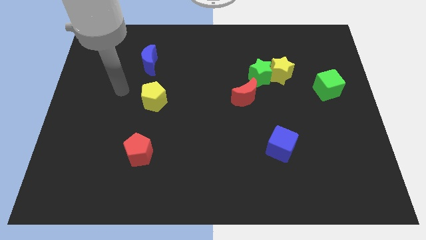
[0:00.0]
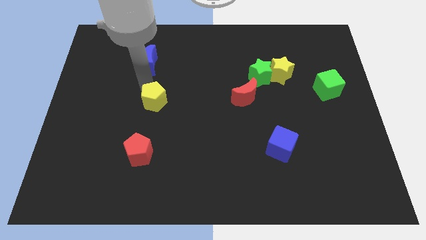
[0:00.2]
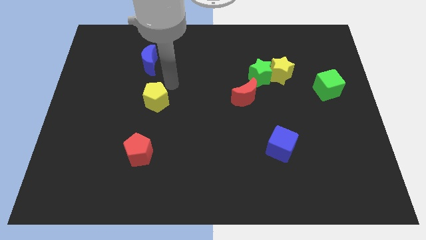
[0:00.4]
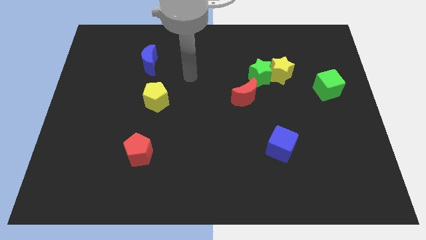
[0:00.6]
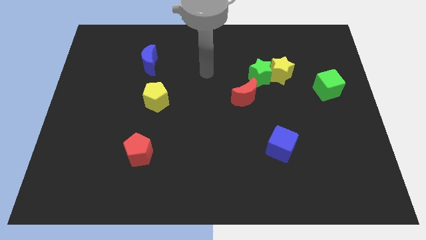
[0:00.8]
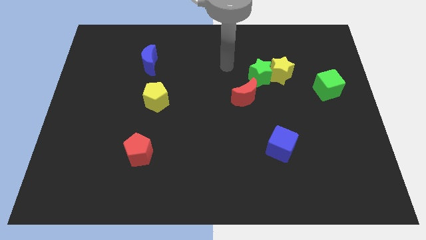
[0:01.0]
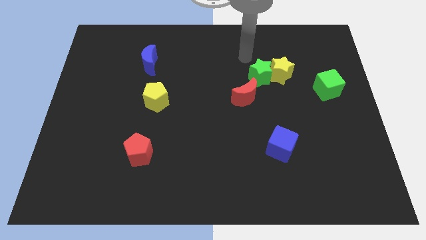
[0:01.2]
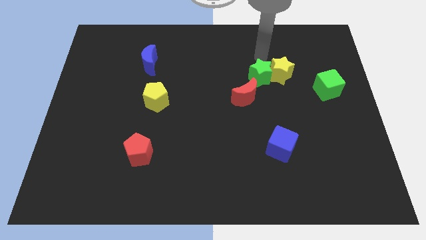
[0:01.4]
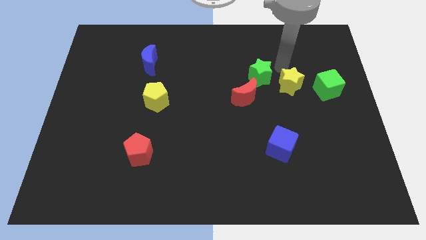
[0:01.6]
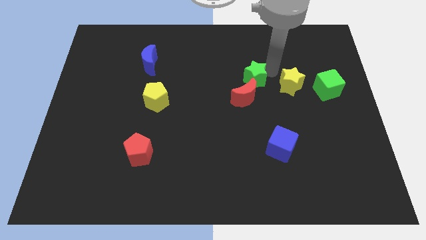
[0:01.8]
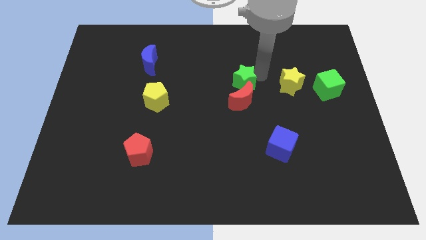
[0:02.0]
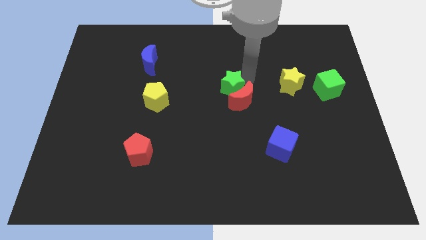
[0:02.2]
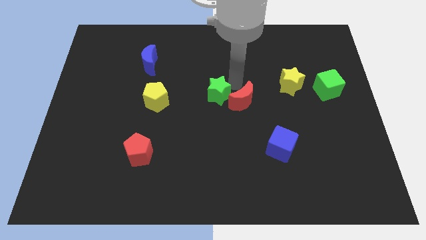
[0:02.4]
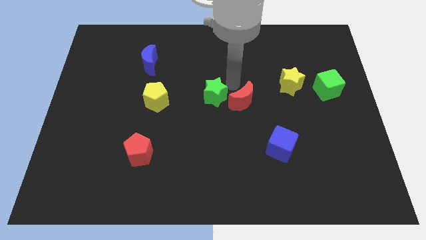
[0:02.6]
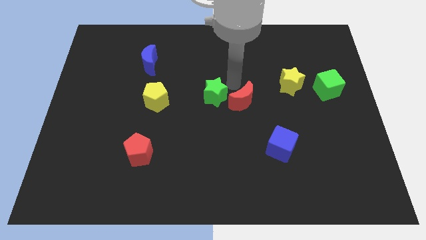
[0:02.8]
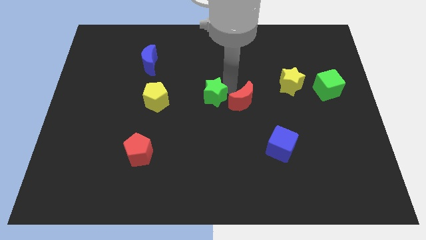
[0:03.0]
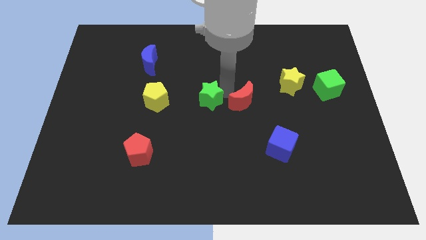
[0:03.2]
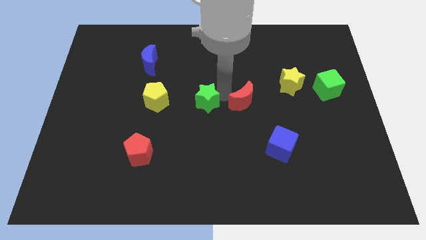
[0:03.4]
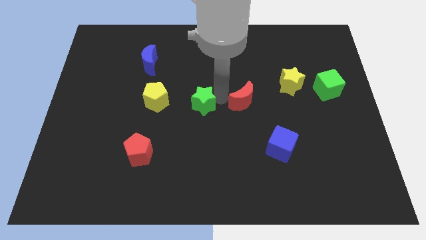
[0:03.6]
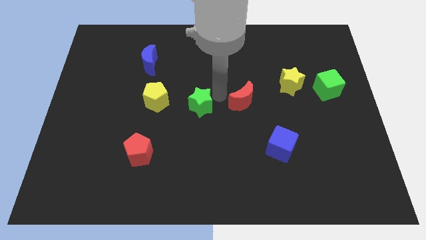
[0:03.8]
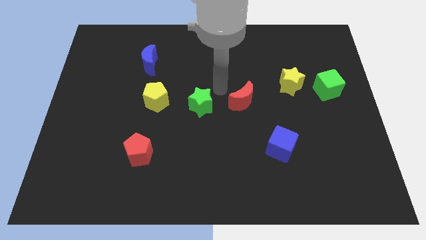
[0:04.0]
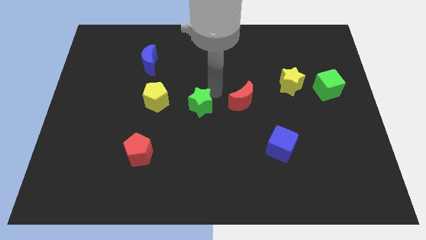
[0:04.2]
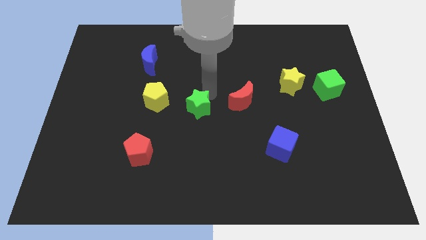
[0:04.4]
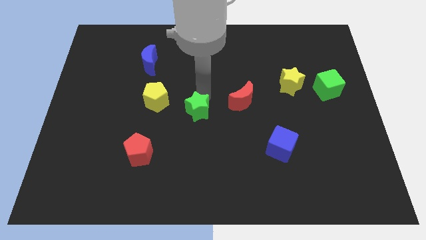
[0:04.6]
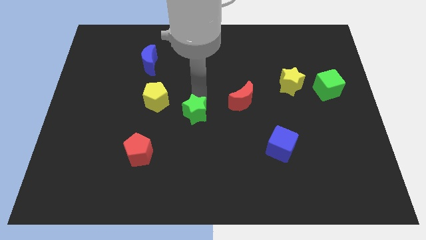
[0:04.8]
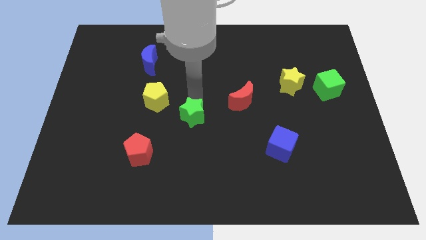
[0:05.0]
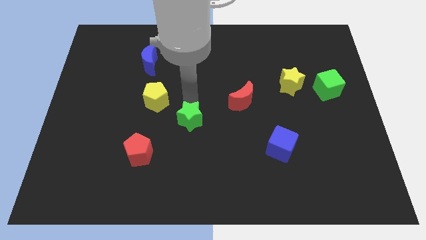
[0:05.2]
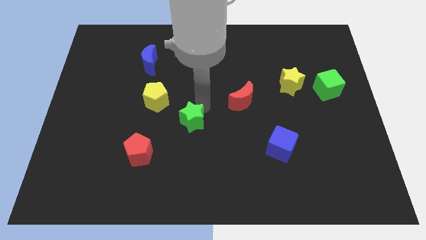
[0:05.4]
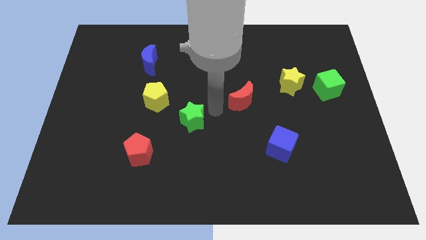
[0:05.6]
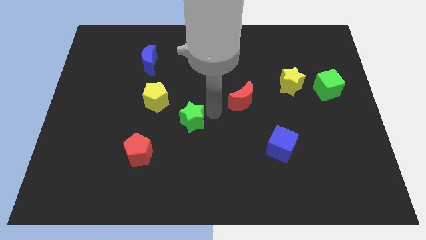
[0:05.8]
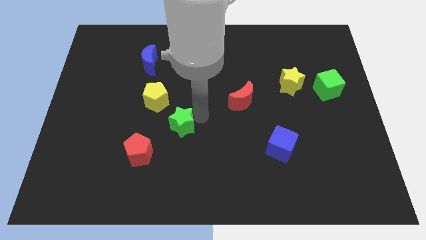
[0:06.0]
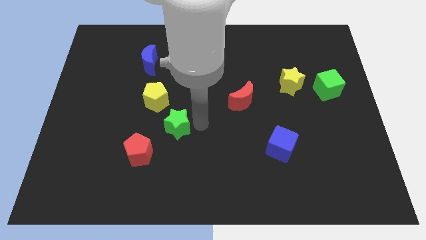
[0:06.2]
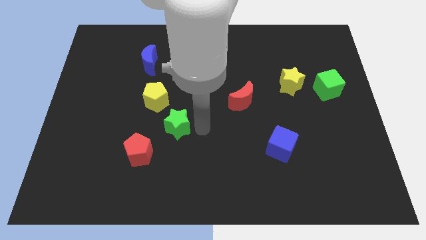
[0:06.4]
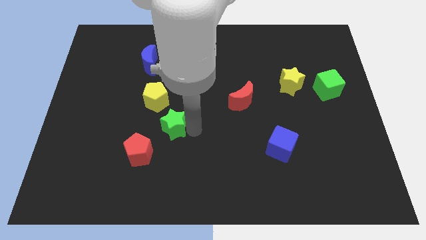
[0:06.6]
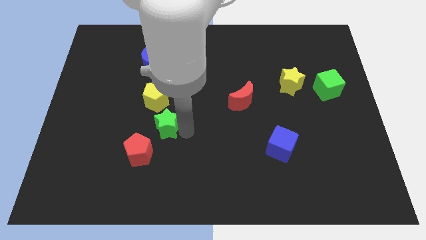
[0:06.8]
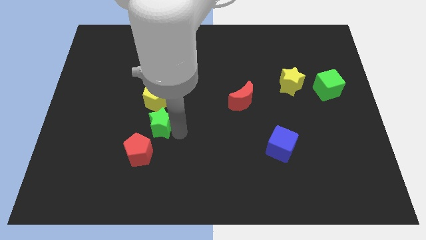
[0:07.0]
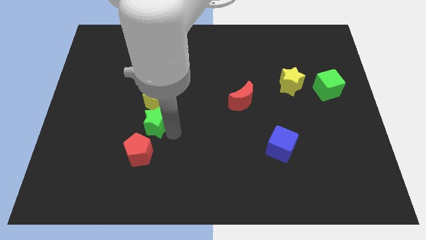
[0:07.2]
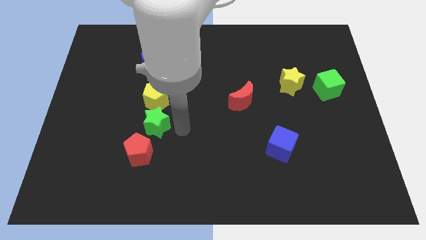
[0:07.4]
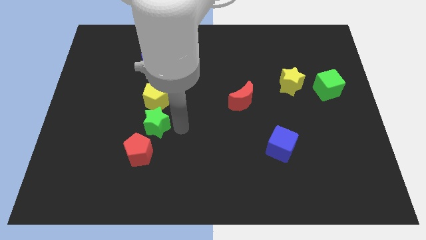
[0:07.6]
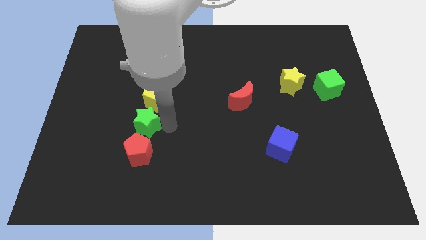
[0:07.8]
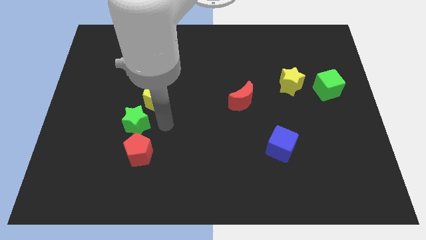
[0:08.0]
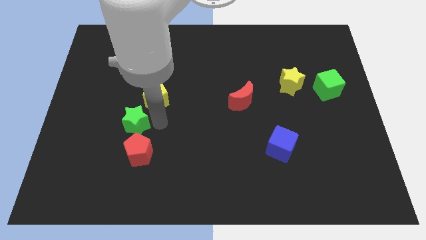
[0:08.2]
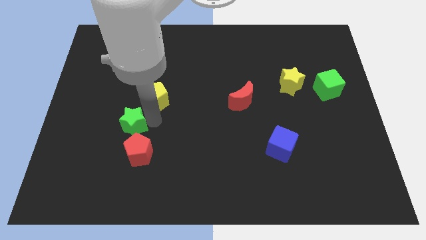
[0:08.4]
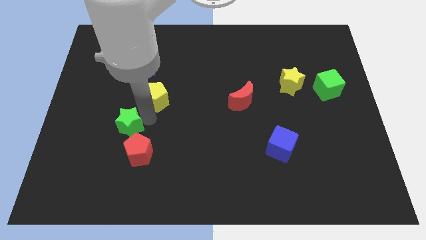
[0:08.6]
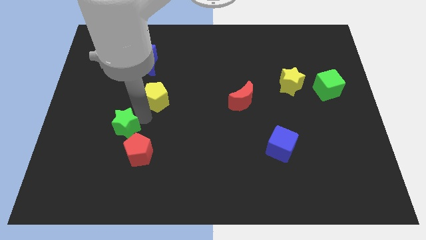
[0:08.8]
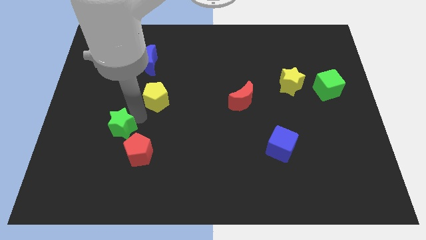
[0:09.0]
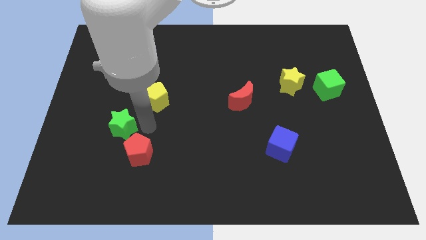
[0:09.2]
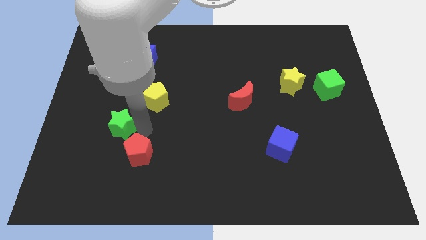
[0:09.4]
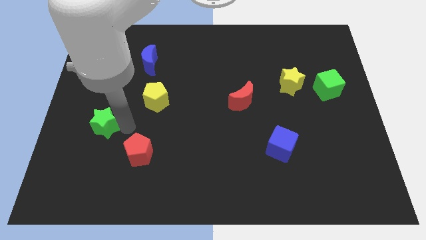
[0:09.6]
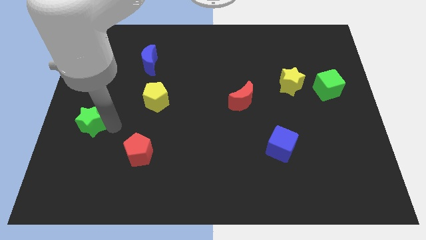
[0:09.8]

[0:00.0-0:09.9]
slide the green star to the left side of the board

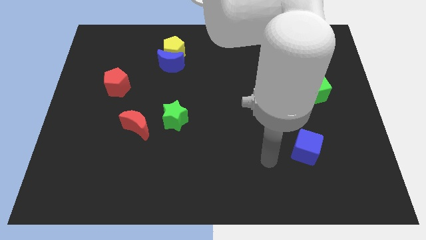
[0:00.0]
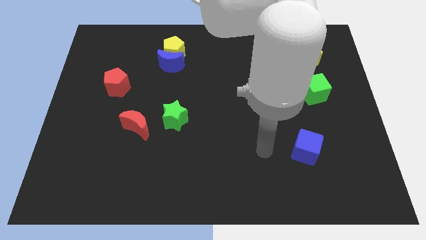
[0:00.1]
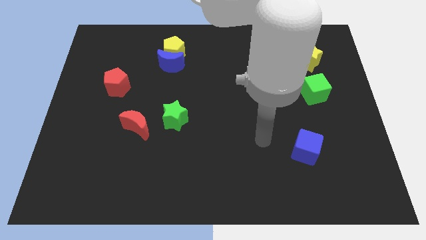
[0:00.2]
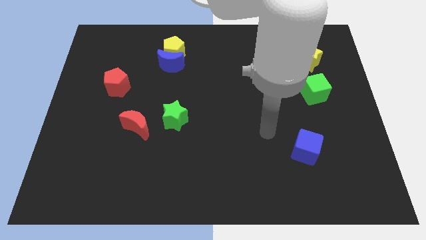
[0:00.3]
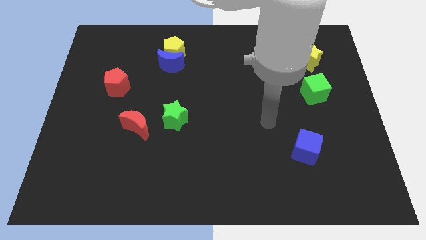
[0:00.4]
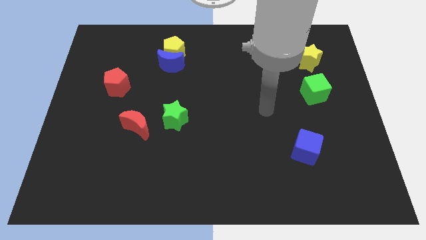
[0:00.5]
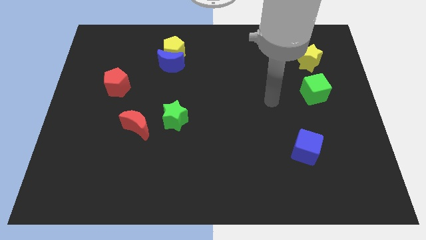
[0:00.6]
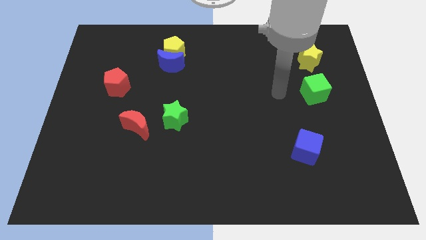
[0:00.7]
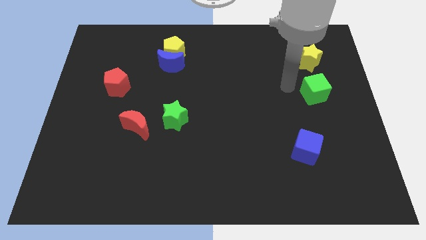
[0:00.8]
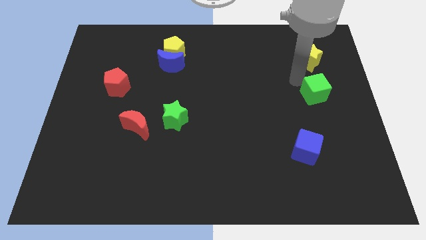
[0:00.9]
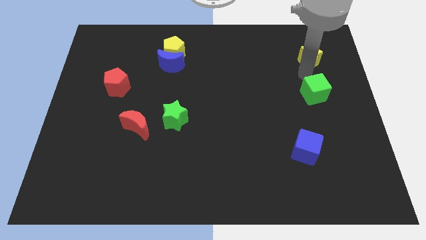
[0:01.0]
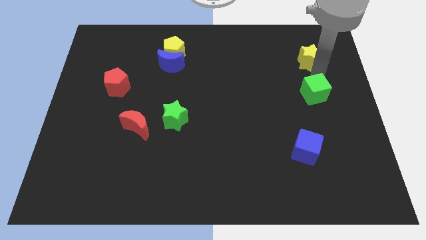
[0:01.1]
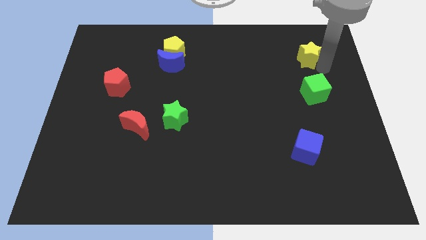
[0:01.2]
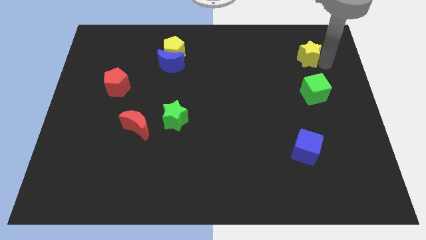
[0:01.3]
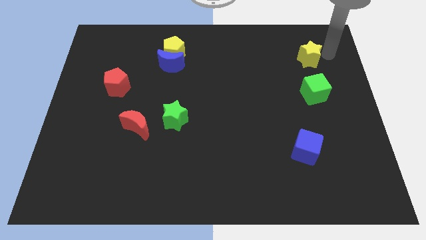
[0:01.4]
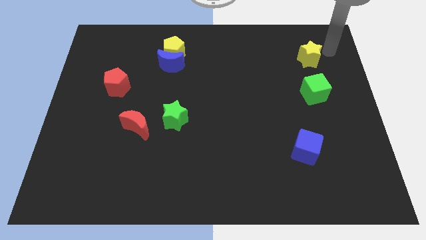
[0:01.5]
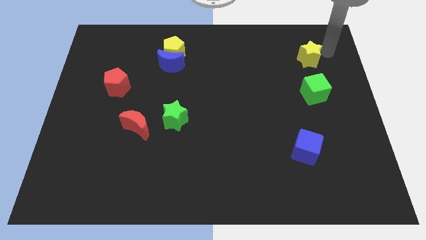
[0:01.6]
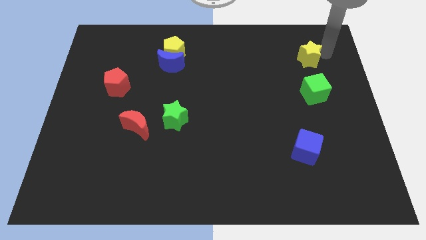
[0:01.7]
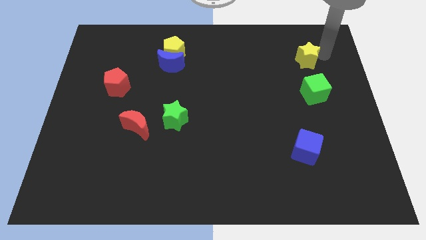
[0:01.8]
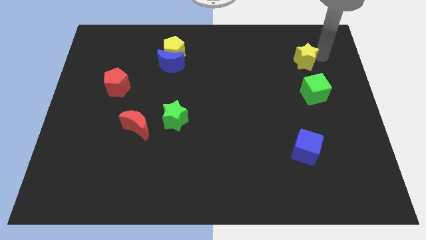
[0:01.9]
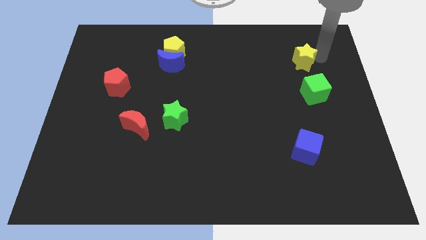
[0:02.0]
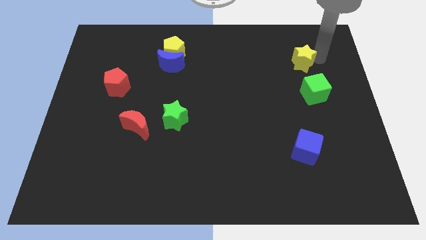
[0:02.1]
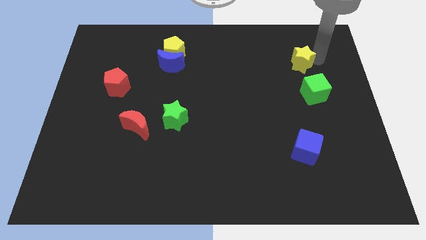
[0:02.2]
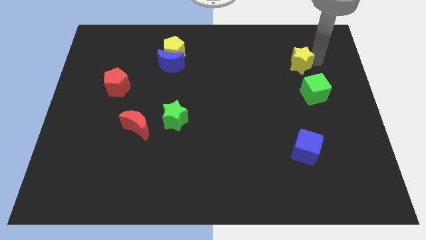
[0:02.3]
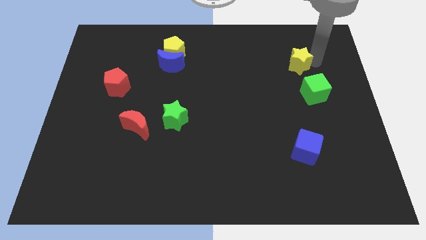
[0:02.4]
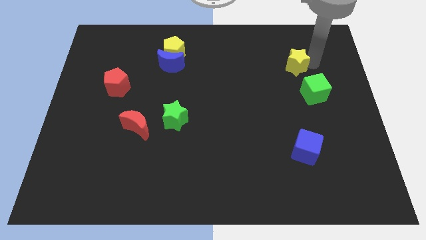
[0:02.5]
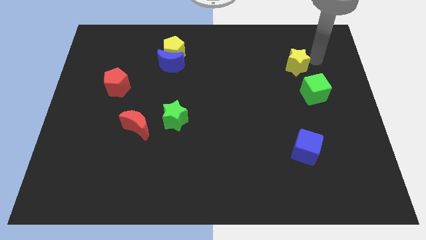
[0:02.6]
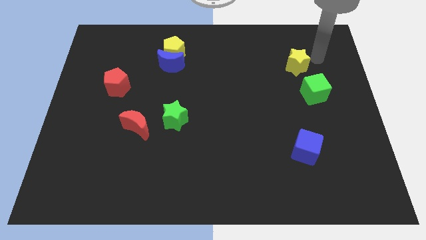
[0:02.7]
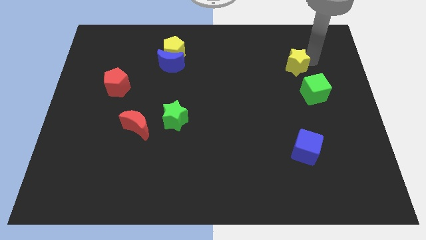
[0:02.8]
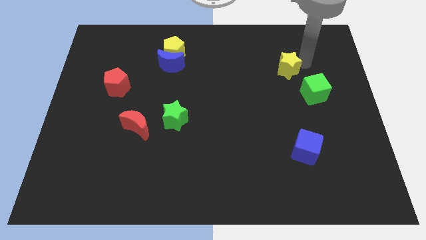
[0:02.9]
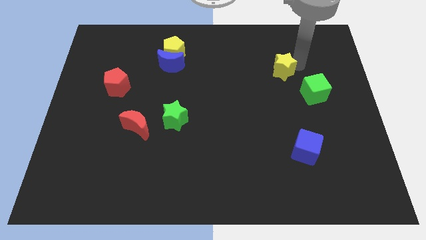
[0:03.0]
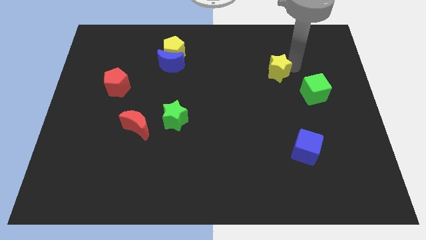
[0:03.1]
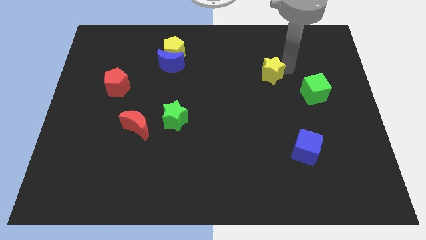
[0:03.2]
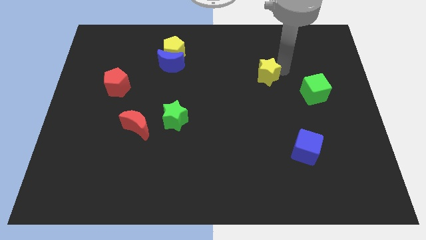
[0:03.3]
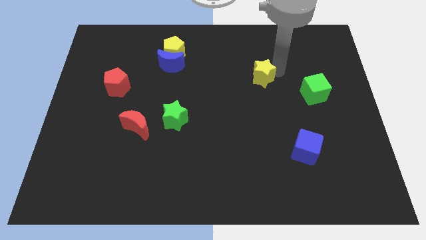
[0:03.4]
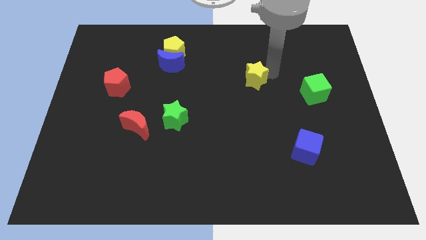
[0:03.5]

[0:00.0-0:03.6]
slide the yellow star to the middle
